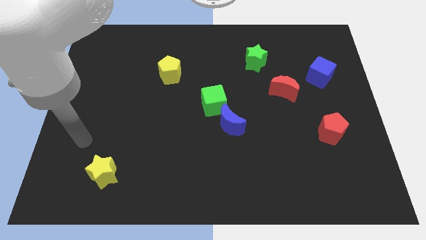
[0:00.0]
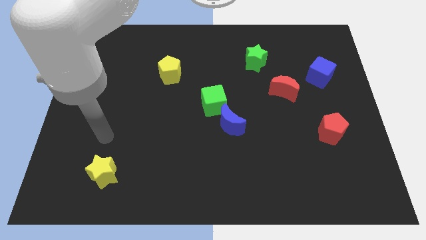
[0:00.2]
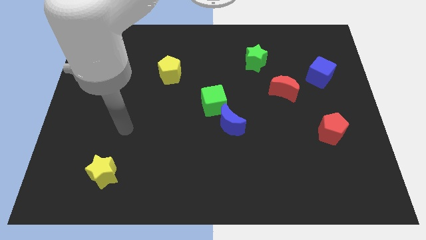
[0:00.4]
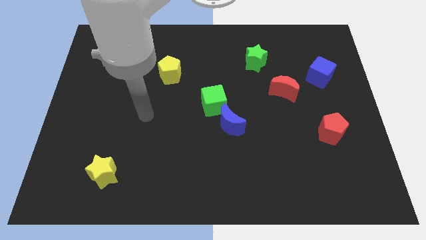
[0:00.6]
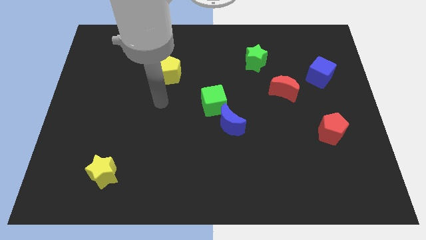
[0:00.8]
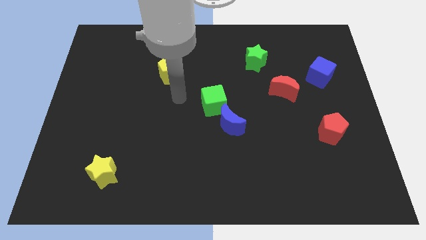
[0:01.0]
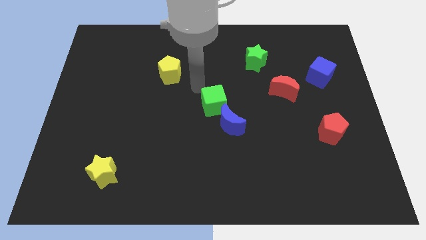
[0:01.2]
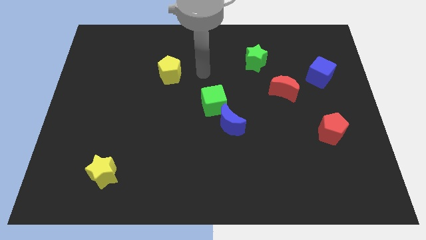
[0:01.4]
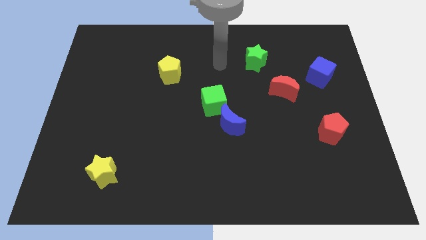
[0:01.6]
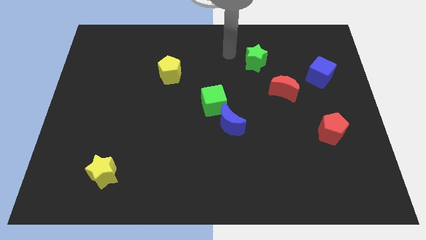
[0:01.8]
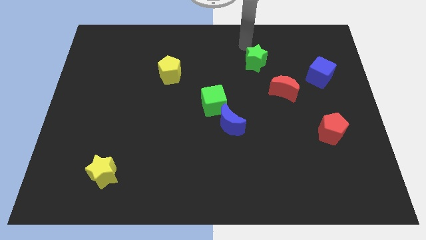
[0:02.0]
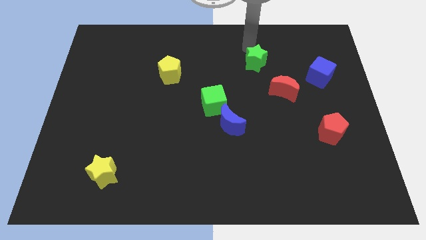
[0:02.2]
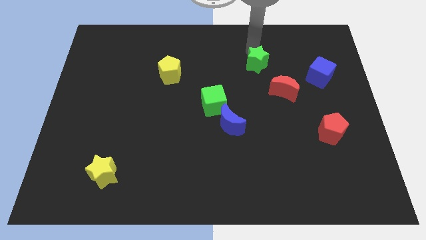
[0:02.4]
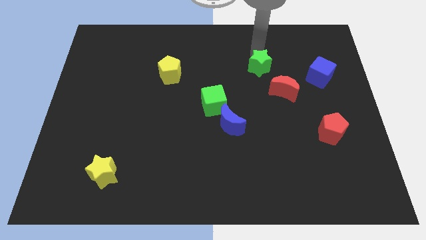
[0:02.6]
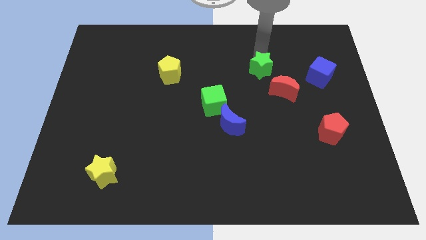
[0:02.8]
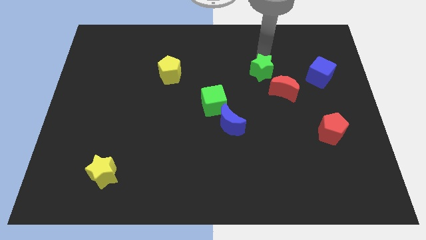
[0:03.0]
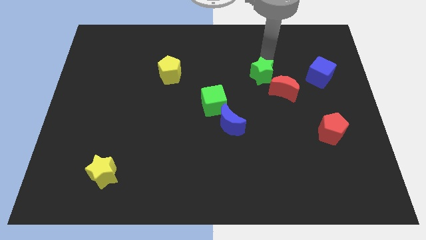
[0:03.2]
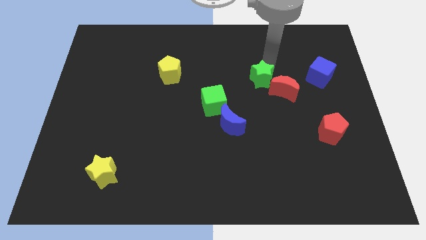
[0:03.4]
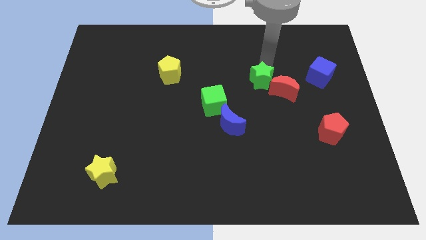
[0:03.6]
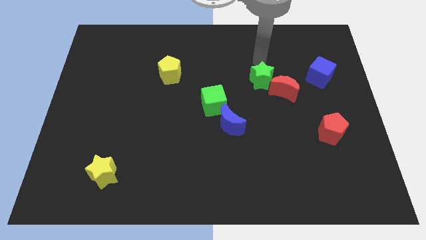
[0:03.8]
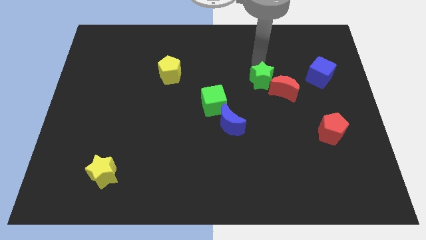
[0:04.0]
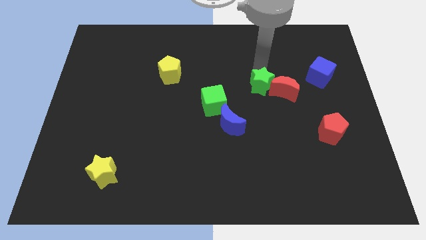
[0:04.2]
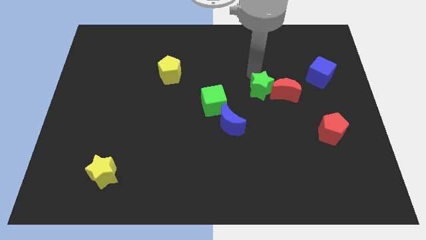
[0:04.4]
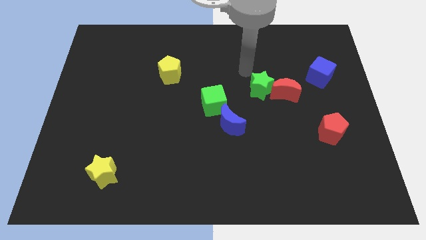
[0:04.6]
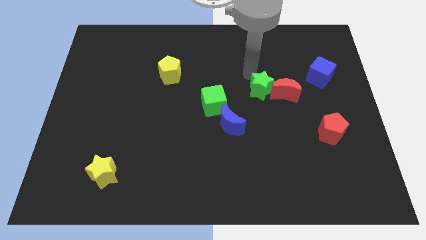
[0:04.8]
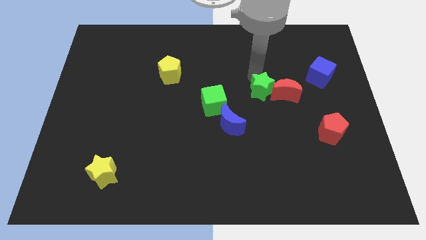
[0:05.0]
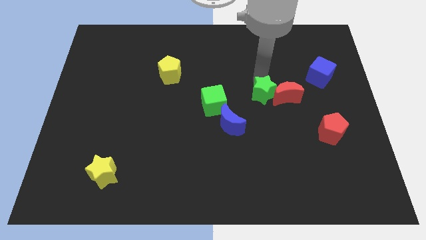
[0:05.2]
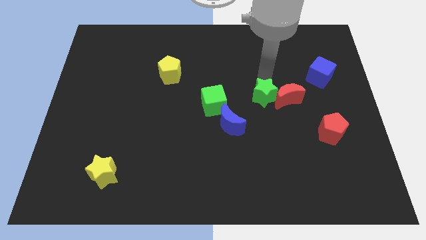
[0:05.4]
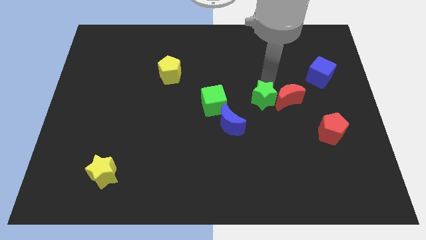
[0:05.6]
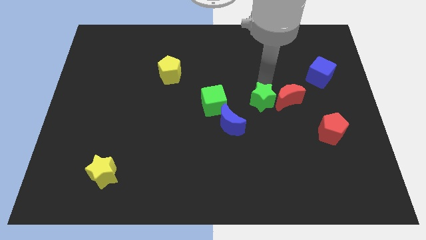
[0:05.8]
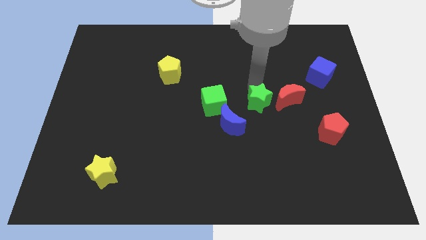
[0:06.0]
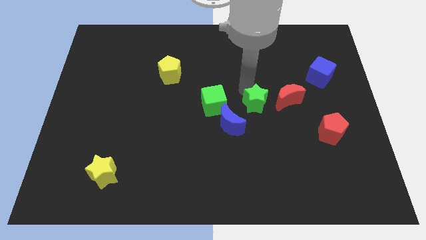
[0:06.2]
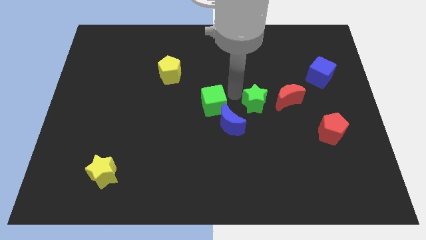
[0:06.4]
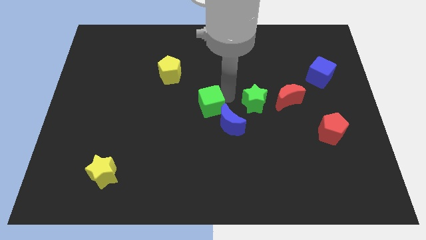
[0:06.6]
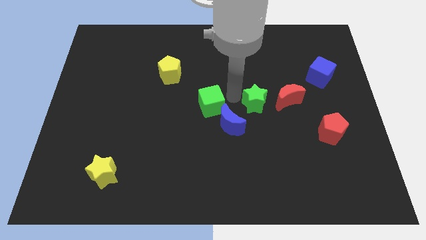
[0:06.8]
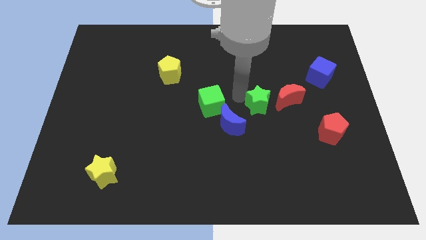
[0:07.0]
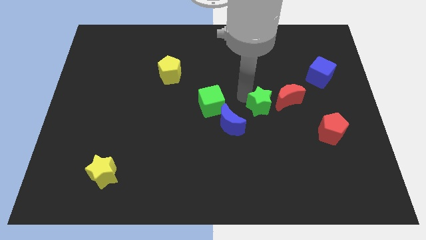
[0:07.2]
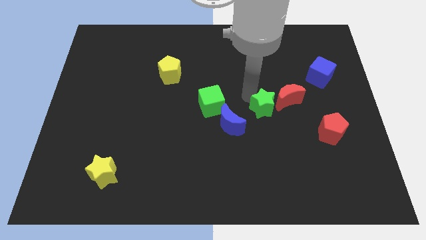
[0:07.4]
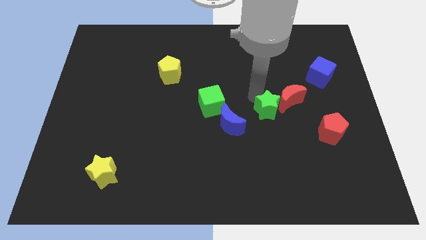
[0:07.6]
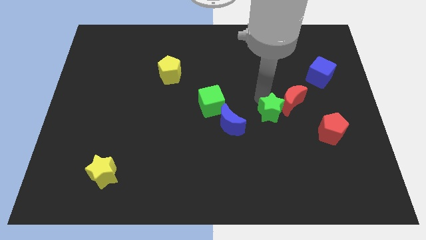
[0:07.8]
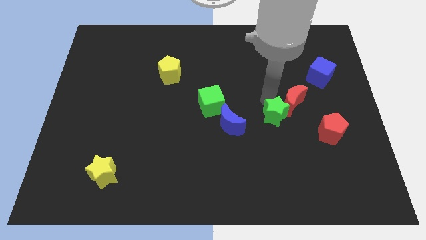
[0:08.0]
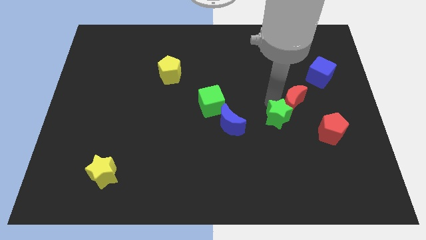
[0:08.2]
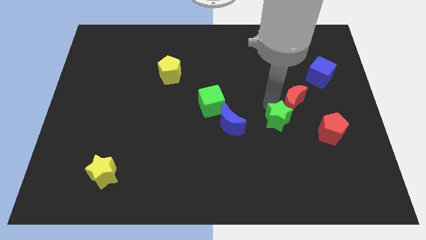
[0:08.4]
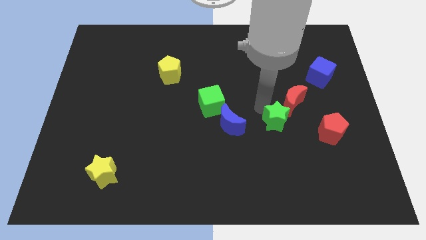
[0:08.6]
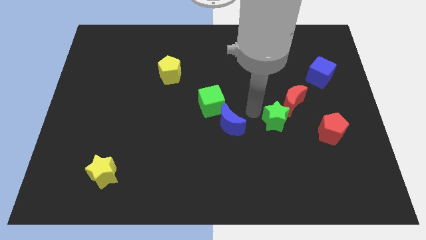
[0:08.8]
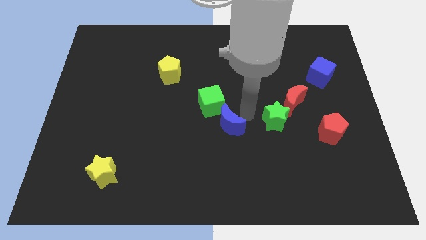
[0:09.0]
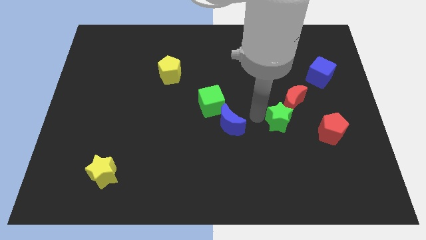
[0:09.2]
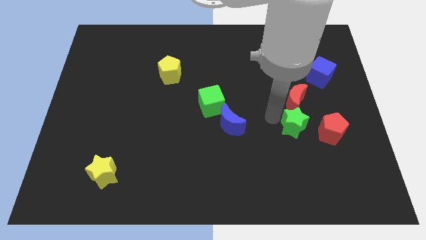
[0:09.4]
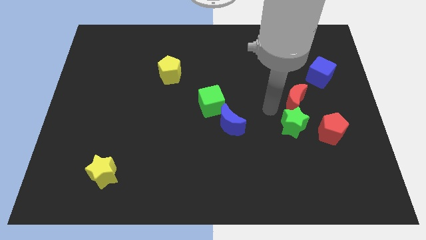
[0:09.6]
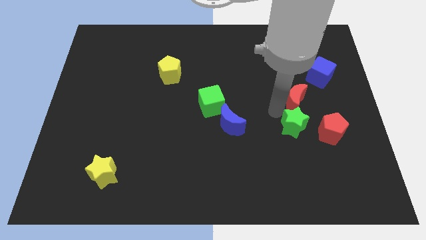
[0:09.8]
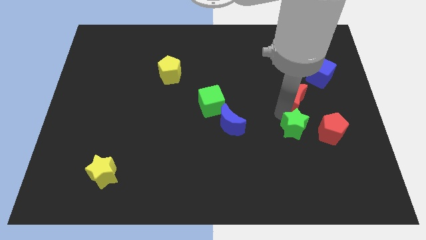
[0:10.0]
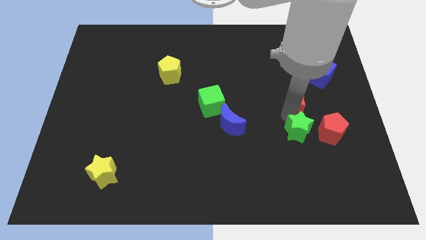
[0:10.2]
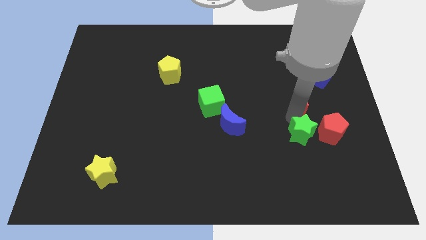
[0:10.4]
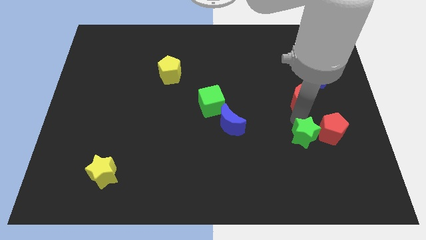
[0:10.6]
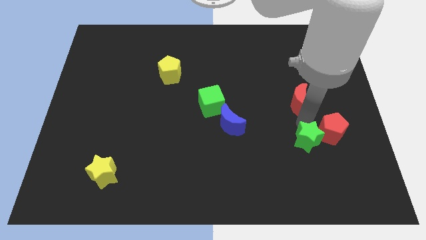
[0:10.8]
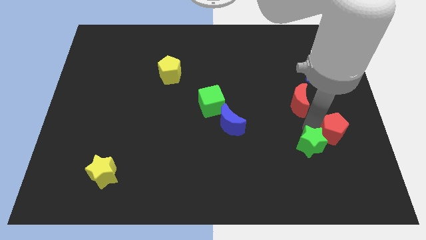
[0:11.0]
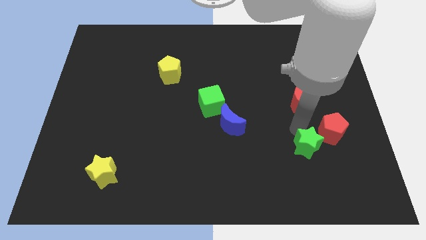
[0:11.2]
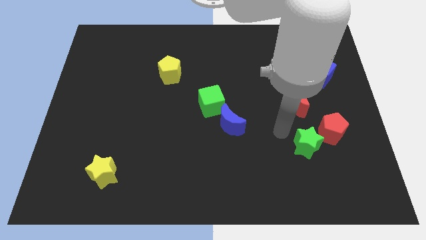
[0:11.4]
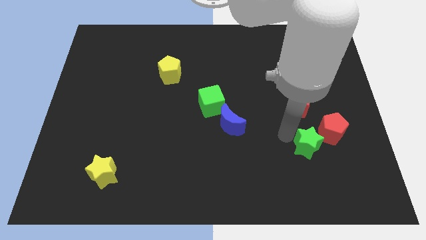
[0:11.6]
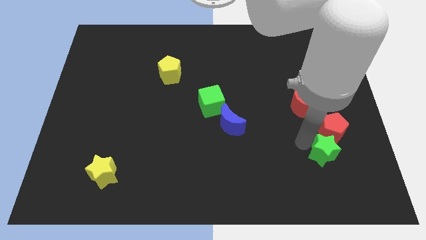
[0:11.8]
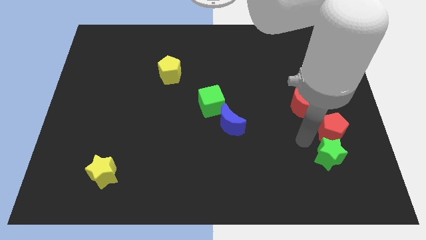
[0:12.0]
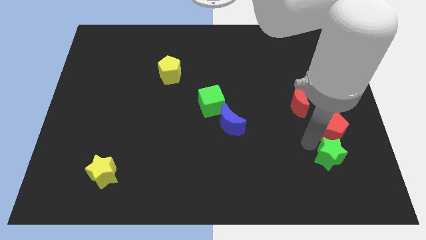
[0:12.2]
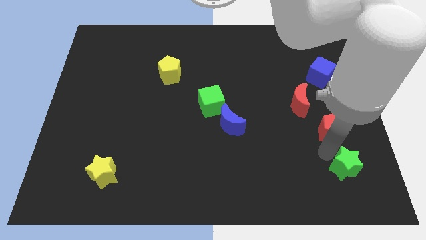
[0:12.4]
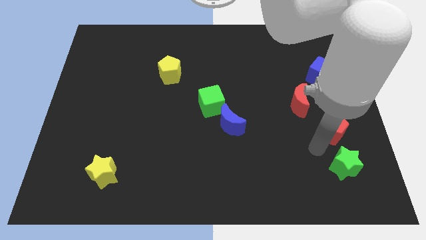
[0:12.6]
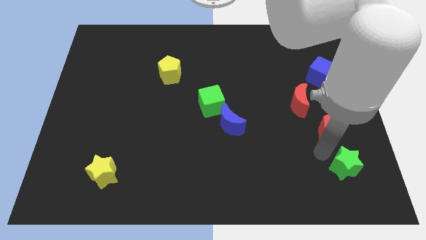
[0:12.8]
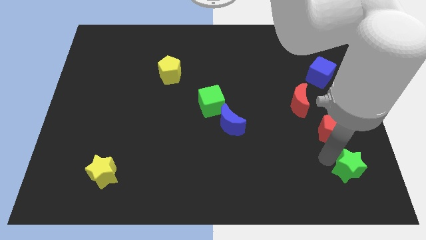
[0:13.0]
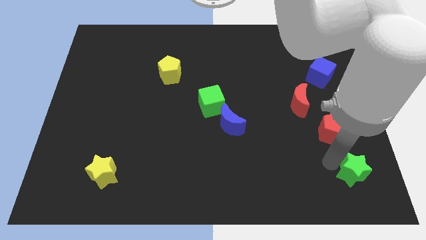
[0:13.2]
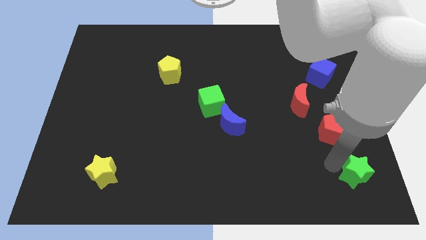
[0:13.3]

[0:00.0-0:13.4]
push the green star to the bottom right of the board

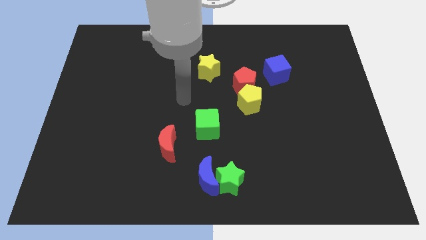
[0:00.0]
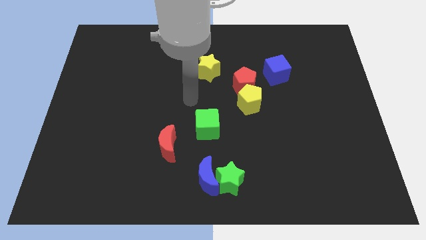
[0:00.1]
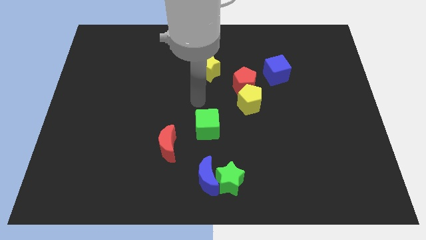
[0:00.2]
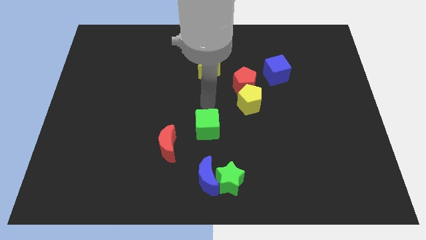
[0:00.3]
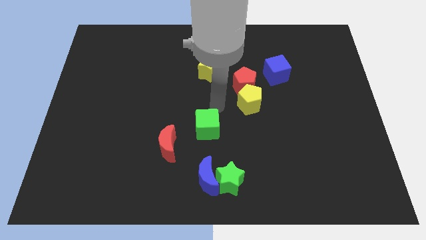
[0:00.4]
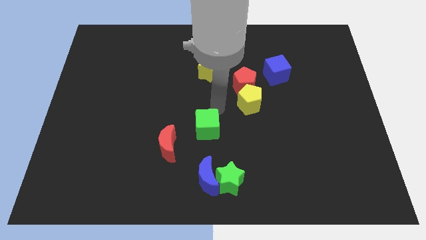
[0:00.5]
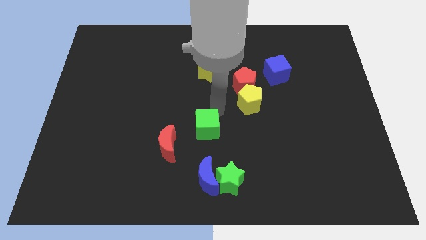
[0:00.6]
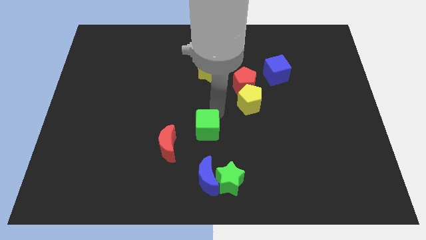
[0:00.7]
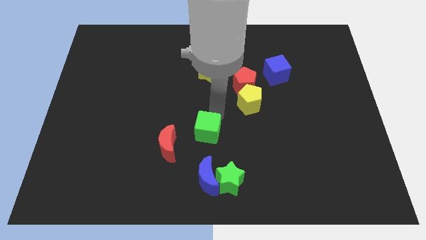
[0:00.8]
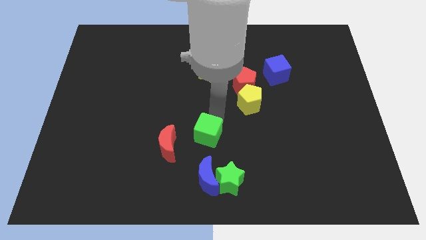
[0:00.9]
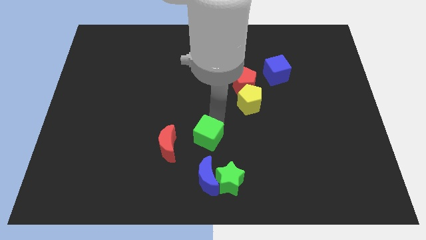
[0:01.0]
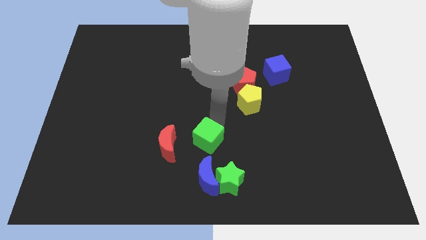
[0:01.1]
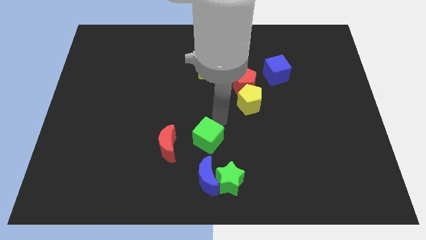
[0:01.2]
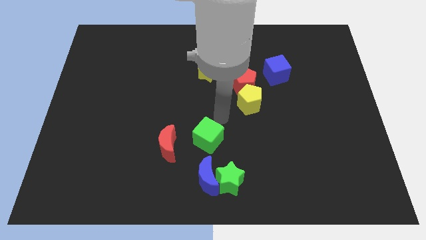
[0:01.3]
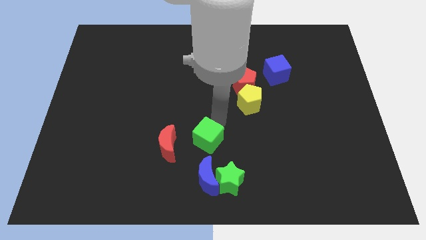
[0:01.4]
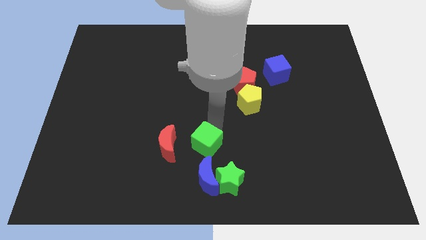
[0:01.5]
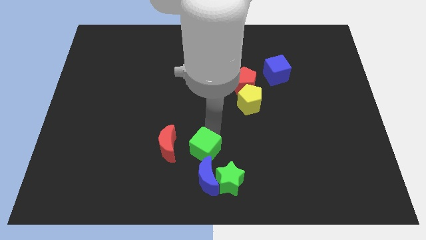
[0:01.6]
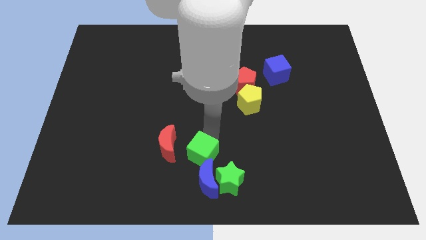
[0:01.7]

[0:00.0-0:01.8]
slide the green cube to the bottom

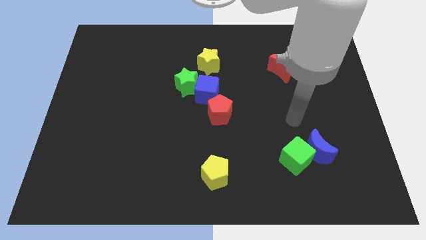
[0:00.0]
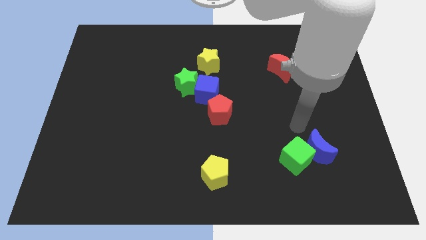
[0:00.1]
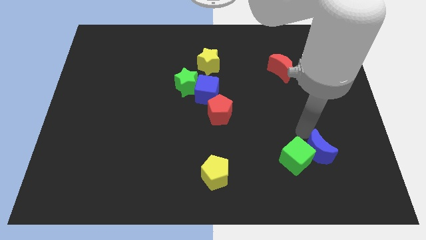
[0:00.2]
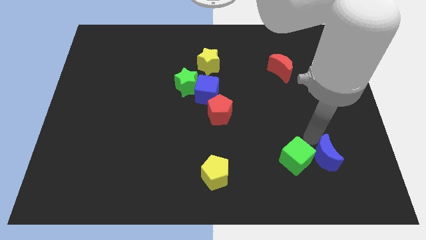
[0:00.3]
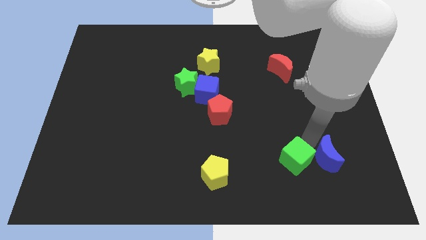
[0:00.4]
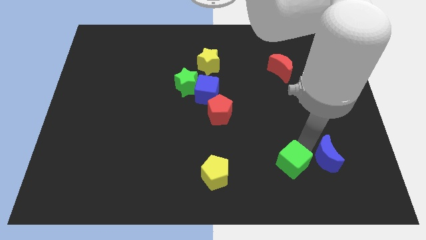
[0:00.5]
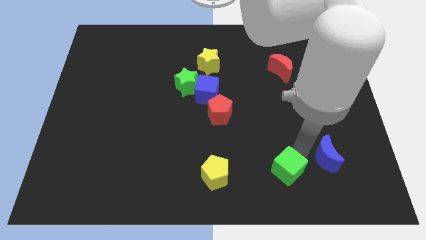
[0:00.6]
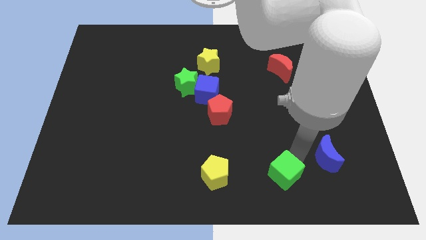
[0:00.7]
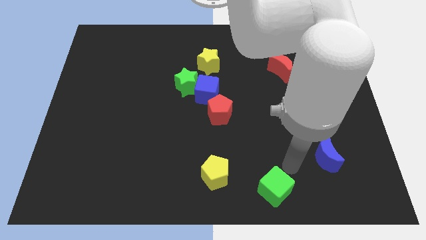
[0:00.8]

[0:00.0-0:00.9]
slide the green cube to the bottom side
